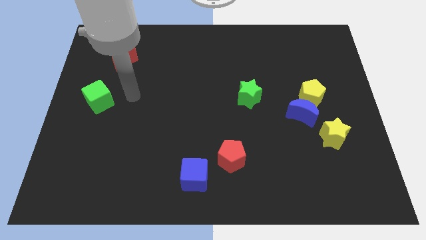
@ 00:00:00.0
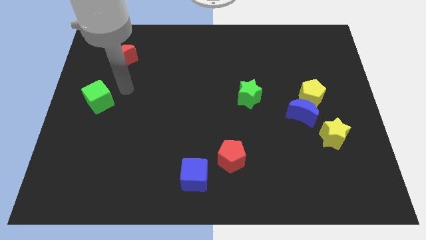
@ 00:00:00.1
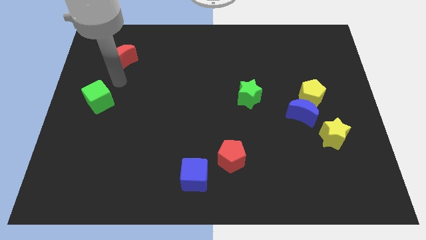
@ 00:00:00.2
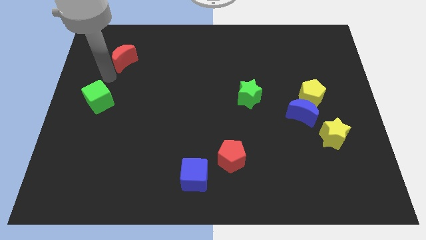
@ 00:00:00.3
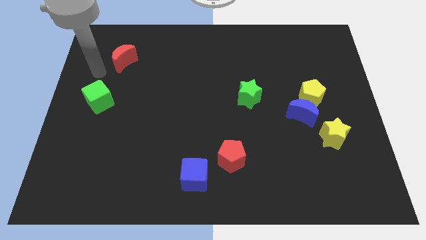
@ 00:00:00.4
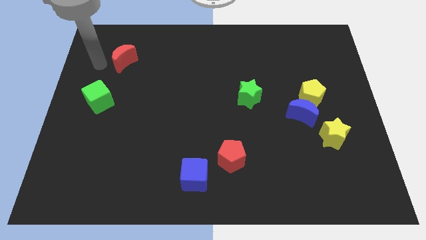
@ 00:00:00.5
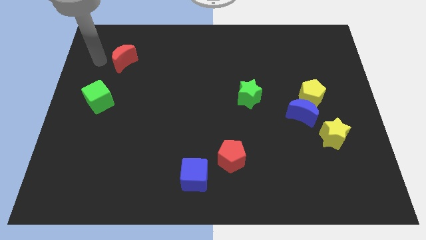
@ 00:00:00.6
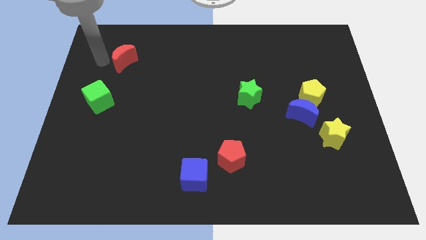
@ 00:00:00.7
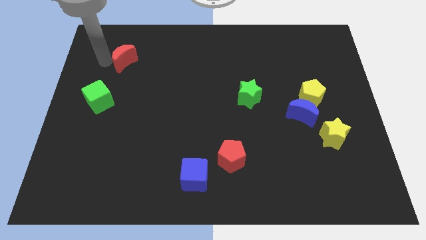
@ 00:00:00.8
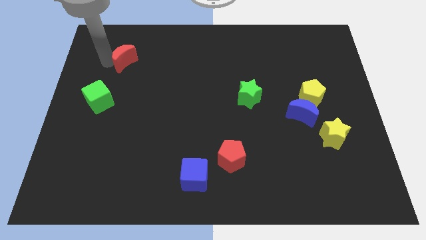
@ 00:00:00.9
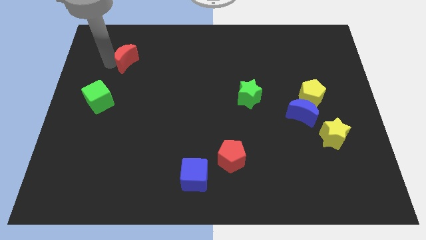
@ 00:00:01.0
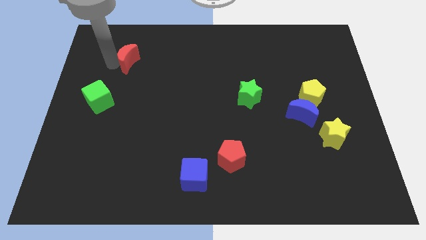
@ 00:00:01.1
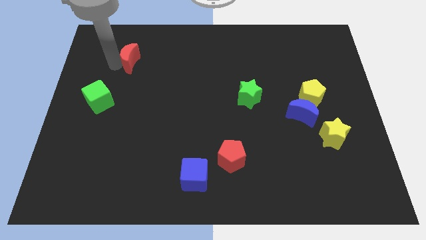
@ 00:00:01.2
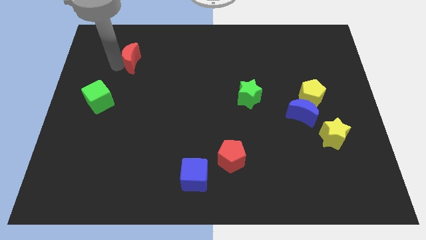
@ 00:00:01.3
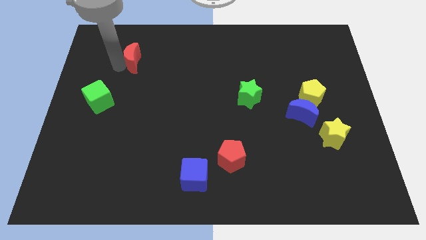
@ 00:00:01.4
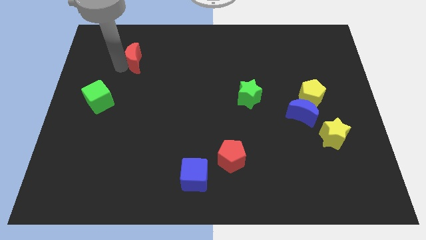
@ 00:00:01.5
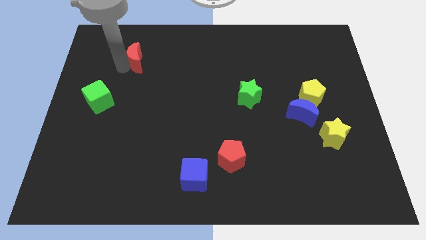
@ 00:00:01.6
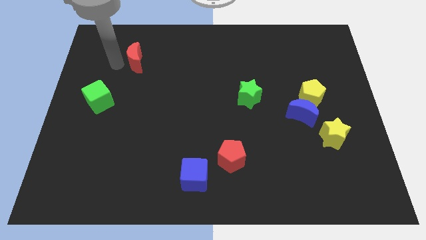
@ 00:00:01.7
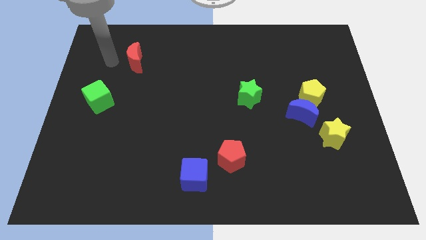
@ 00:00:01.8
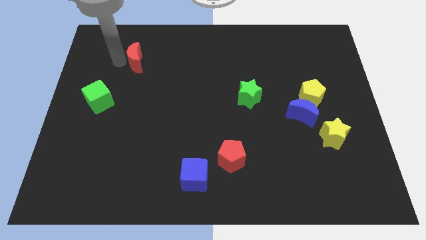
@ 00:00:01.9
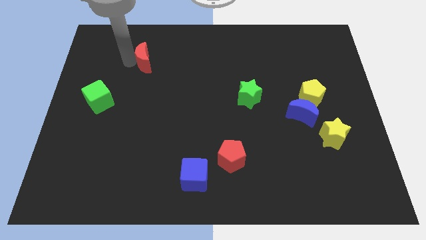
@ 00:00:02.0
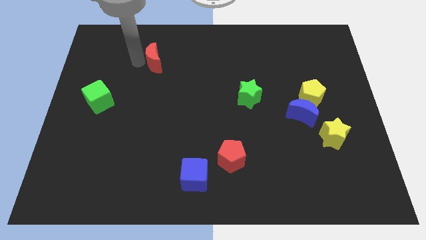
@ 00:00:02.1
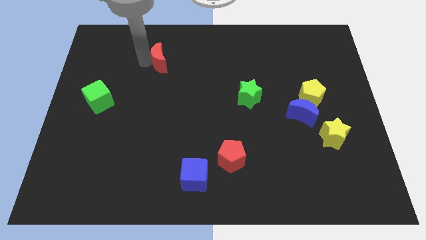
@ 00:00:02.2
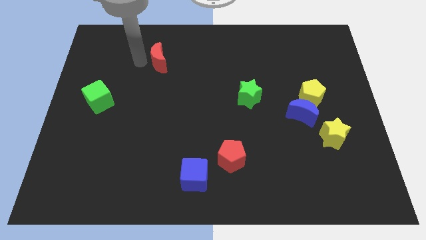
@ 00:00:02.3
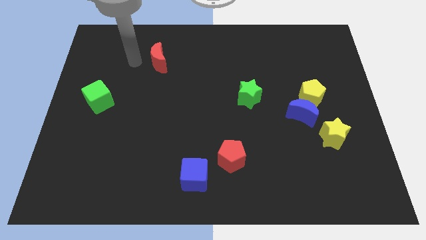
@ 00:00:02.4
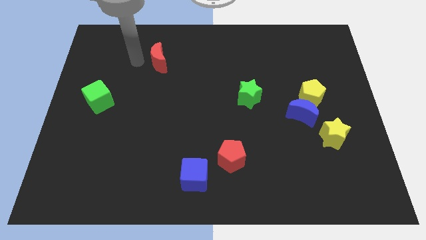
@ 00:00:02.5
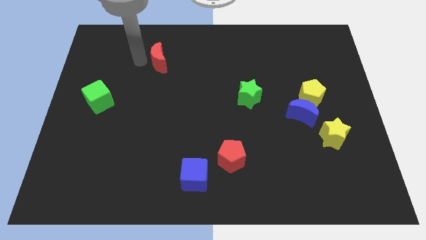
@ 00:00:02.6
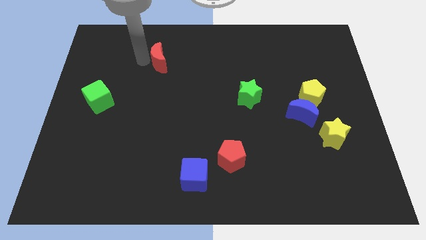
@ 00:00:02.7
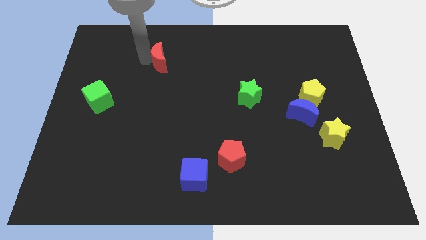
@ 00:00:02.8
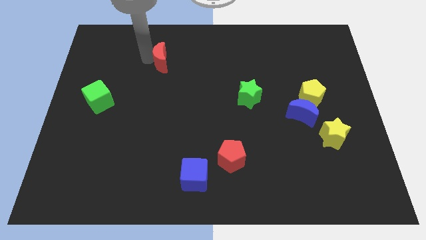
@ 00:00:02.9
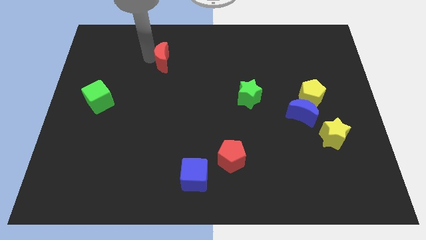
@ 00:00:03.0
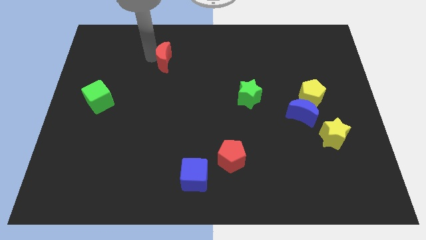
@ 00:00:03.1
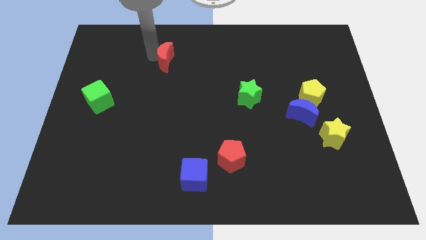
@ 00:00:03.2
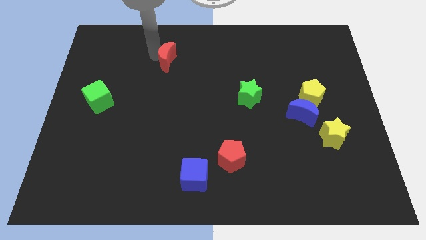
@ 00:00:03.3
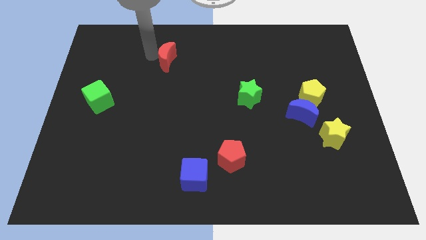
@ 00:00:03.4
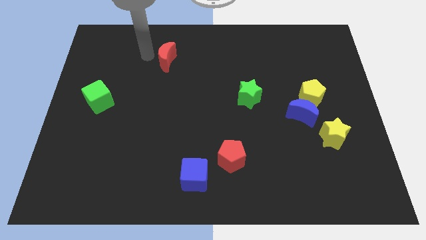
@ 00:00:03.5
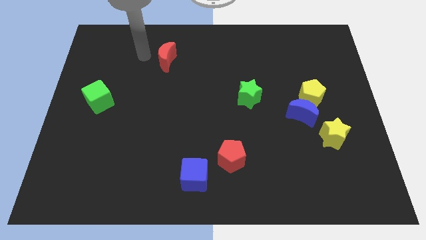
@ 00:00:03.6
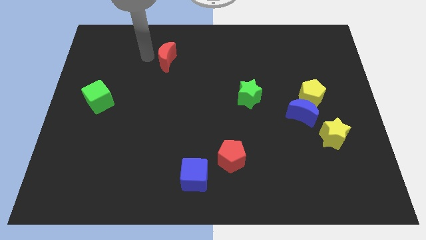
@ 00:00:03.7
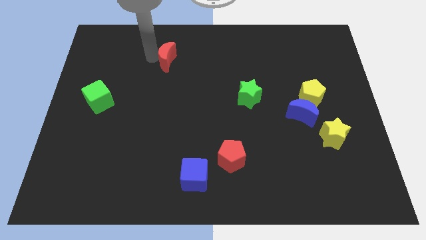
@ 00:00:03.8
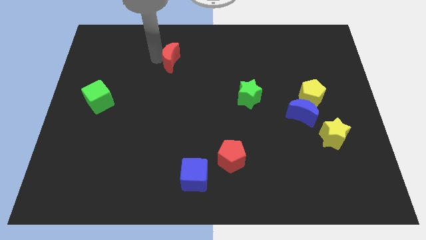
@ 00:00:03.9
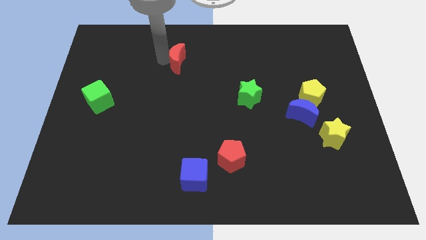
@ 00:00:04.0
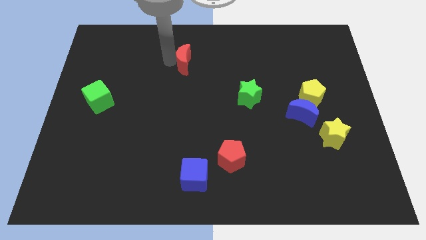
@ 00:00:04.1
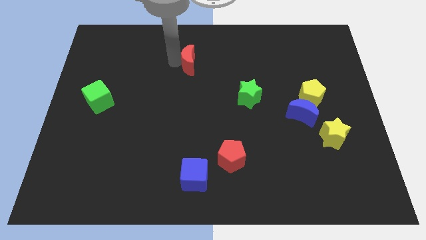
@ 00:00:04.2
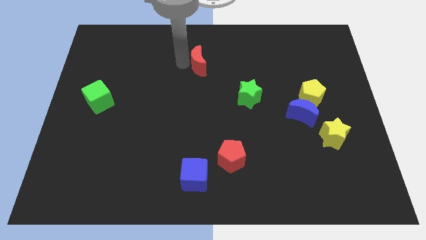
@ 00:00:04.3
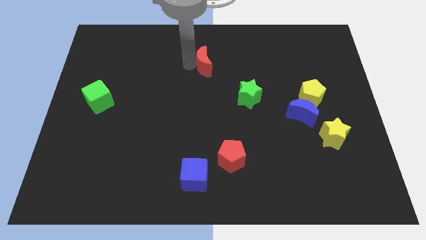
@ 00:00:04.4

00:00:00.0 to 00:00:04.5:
slide the red moon to the right

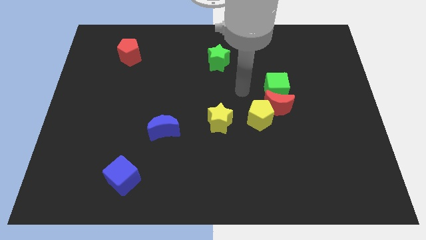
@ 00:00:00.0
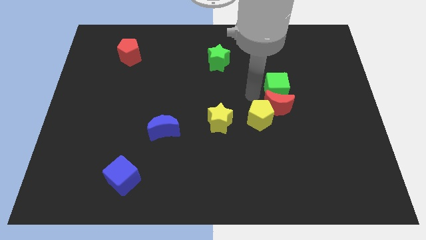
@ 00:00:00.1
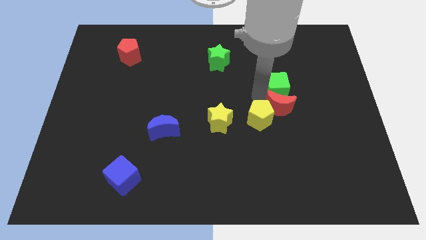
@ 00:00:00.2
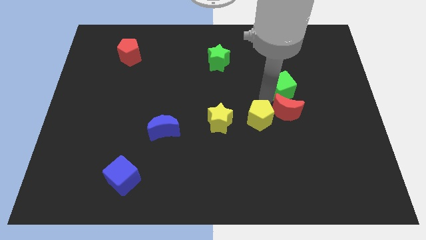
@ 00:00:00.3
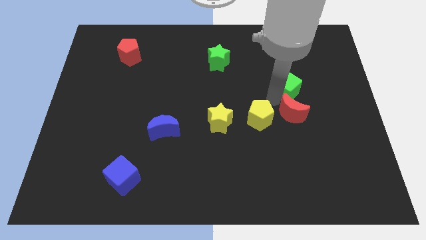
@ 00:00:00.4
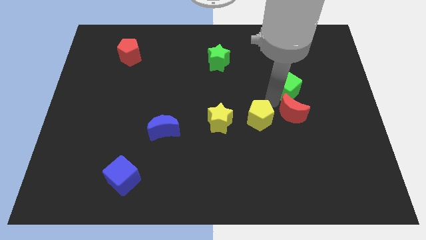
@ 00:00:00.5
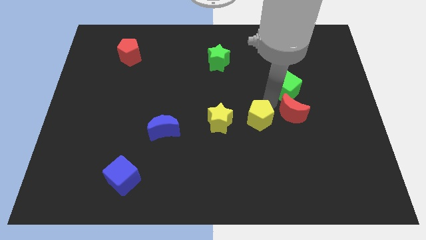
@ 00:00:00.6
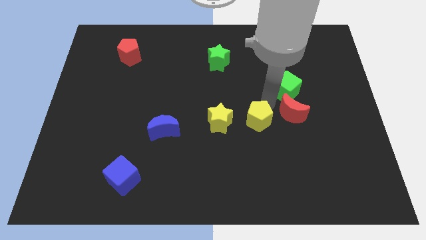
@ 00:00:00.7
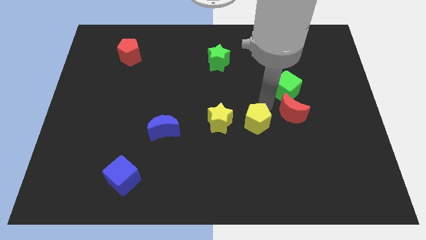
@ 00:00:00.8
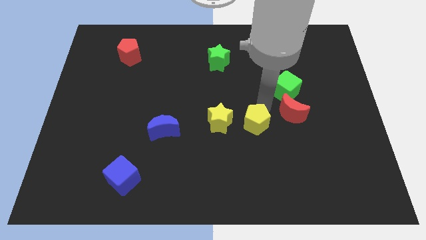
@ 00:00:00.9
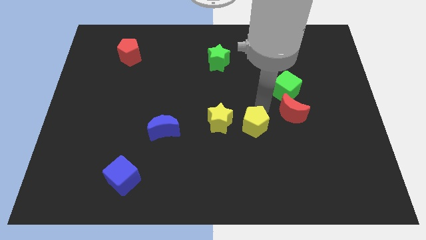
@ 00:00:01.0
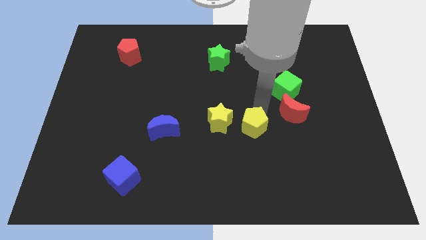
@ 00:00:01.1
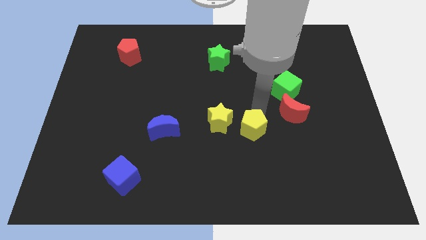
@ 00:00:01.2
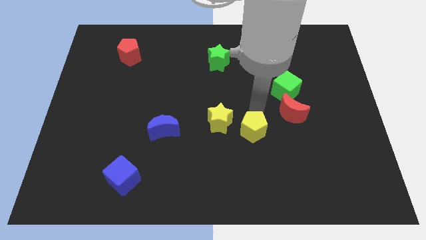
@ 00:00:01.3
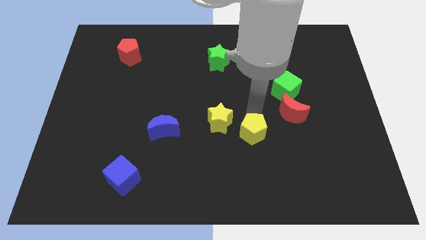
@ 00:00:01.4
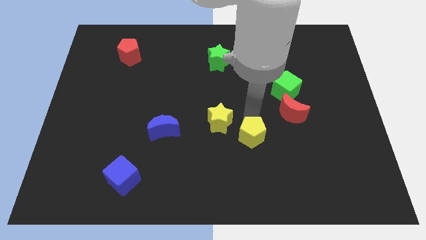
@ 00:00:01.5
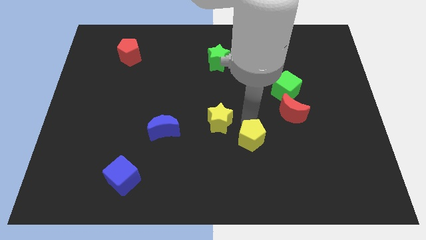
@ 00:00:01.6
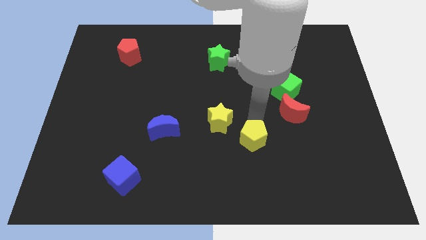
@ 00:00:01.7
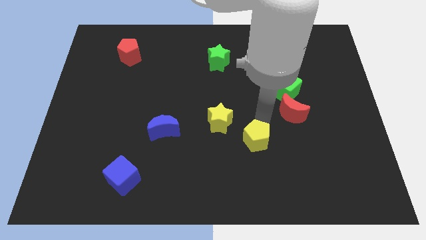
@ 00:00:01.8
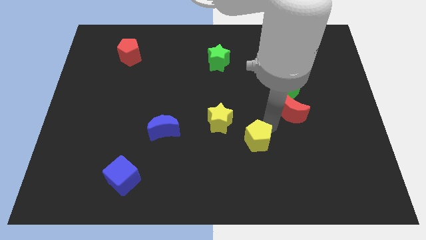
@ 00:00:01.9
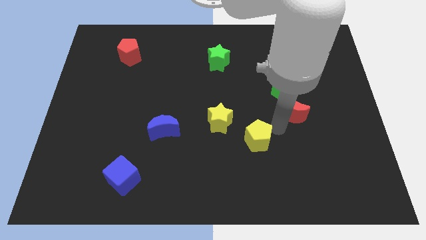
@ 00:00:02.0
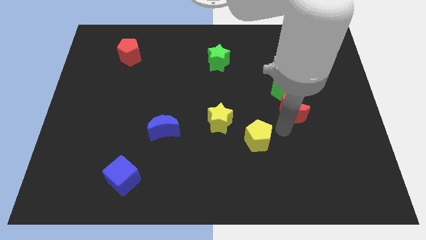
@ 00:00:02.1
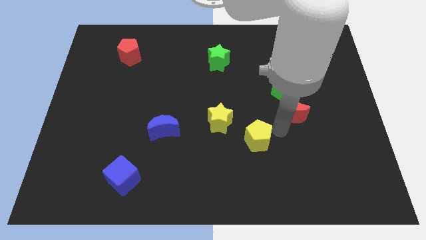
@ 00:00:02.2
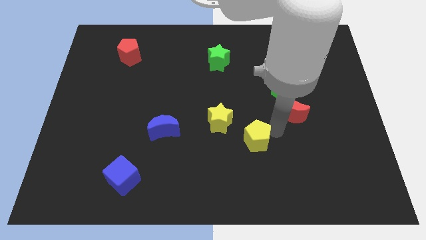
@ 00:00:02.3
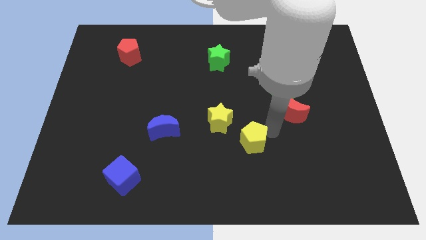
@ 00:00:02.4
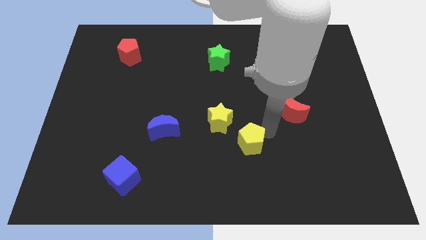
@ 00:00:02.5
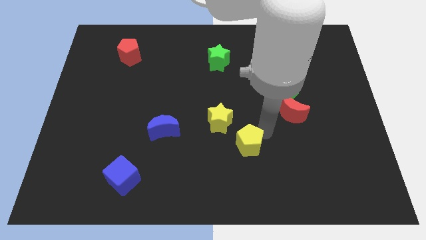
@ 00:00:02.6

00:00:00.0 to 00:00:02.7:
slightly push the yellow pentagon down and left

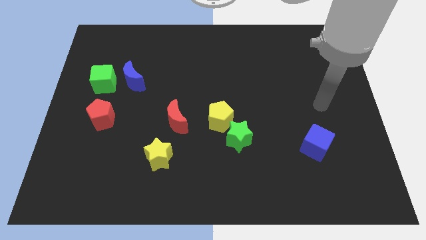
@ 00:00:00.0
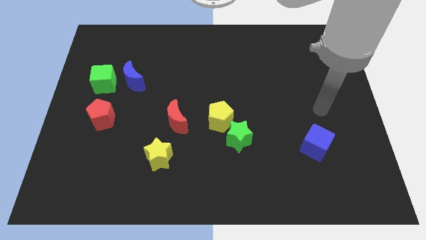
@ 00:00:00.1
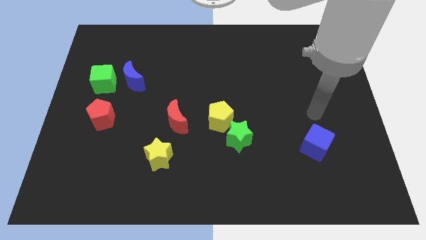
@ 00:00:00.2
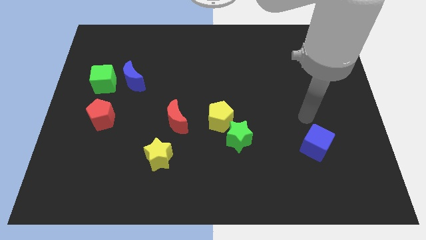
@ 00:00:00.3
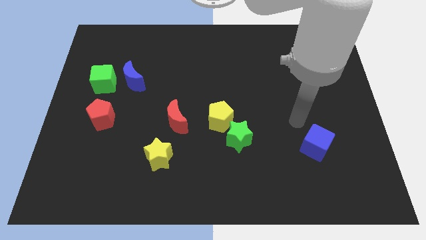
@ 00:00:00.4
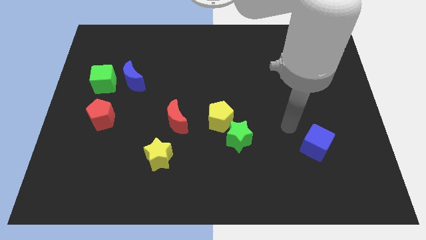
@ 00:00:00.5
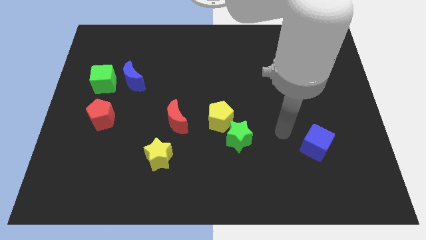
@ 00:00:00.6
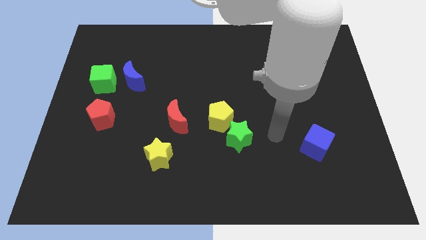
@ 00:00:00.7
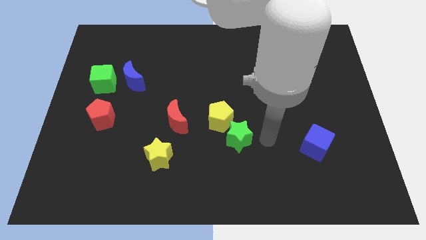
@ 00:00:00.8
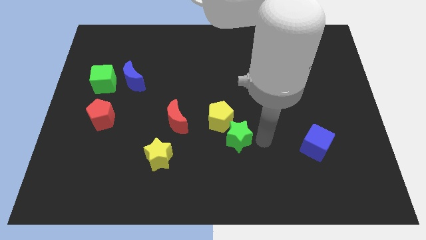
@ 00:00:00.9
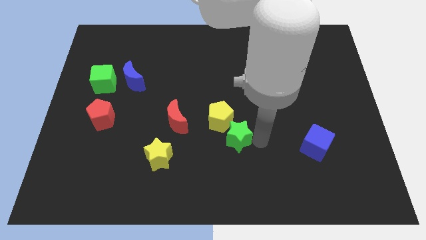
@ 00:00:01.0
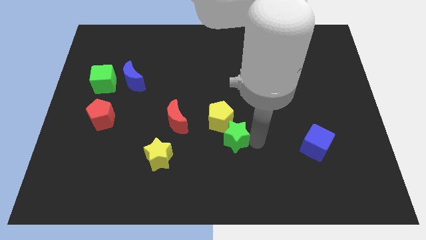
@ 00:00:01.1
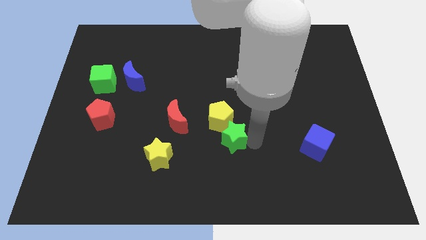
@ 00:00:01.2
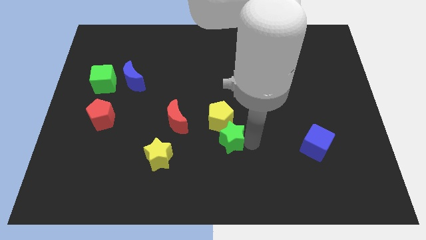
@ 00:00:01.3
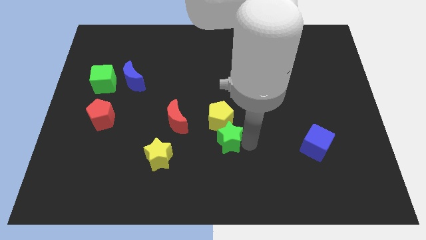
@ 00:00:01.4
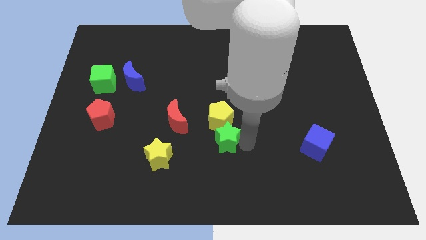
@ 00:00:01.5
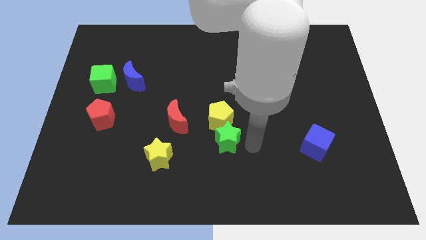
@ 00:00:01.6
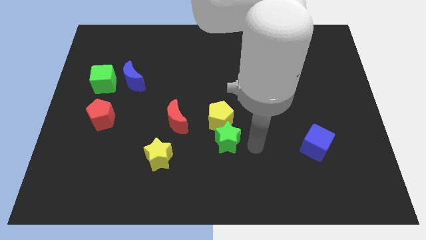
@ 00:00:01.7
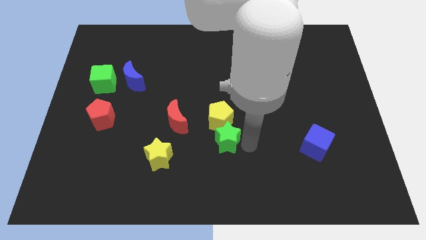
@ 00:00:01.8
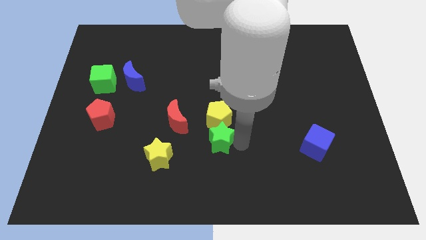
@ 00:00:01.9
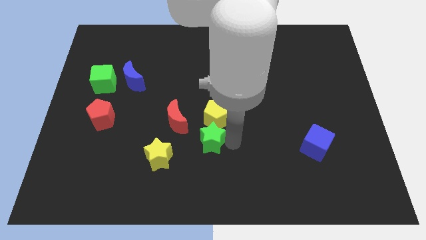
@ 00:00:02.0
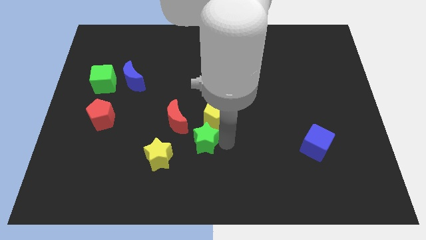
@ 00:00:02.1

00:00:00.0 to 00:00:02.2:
slightly push the green star to the left
